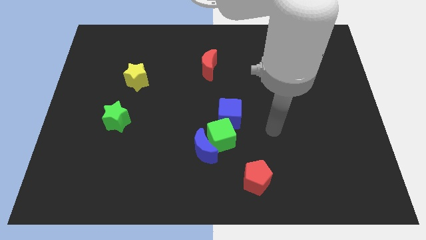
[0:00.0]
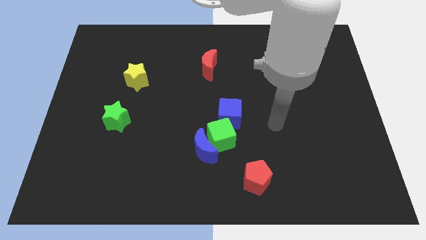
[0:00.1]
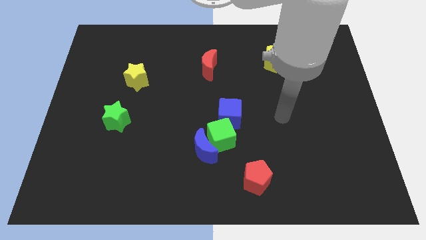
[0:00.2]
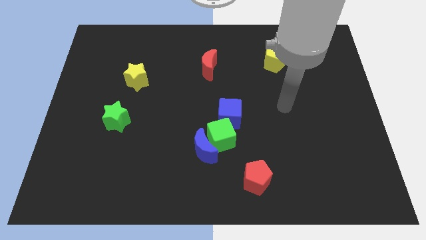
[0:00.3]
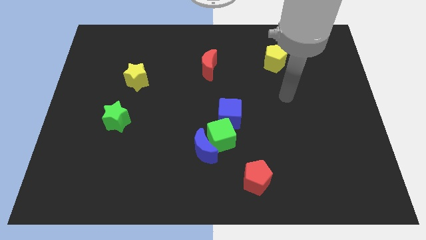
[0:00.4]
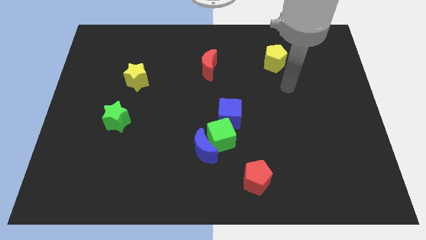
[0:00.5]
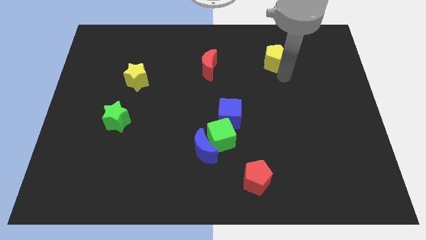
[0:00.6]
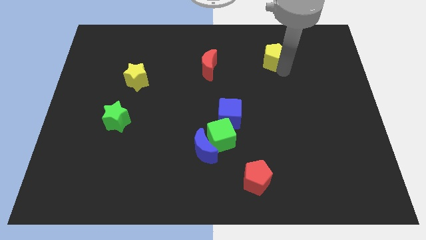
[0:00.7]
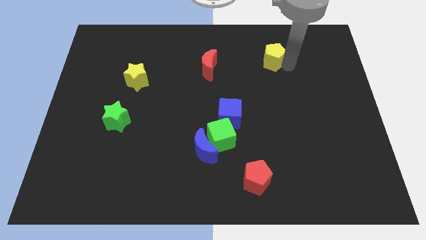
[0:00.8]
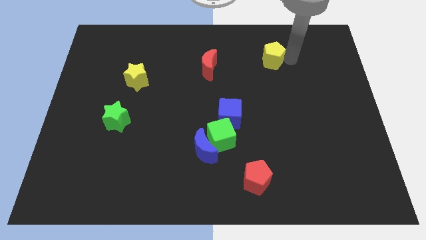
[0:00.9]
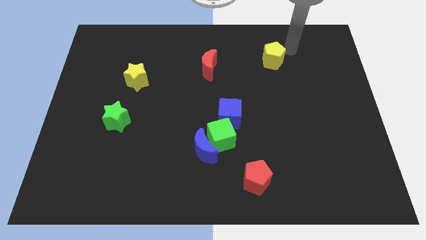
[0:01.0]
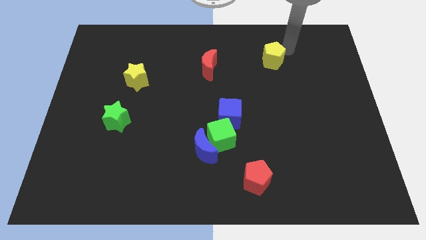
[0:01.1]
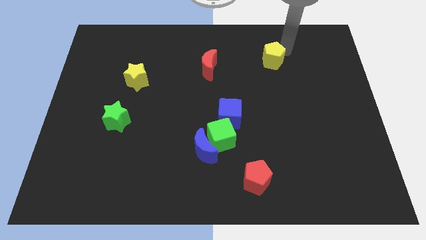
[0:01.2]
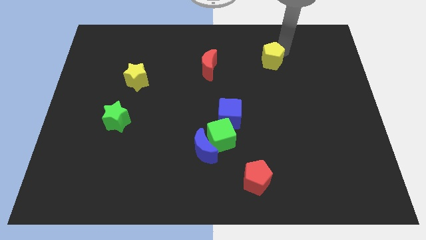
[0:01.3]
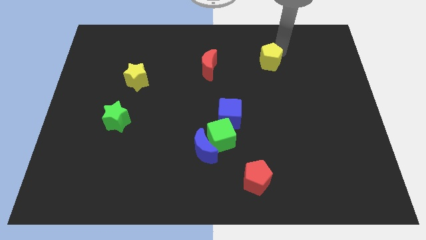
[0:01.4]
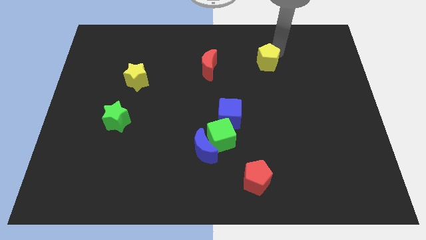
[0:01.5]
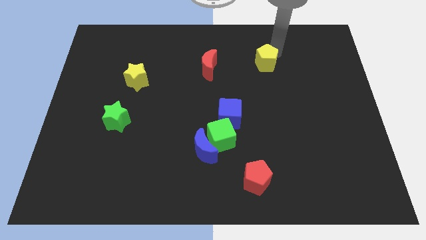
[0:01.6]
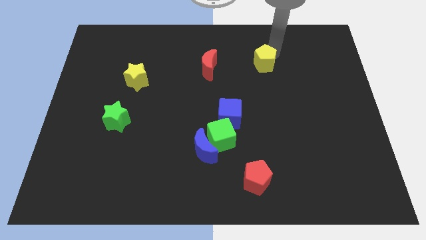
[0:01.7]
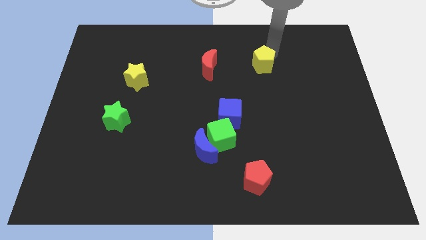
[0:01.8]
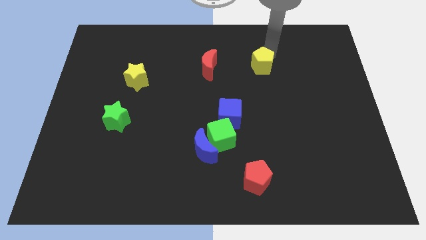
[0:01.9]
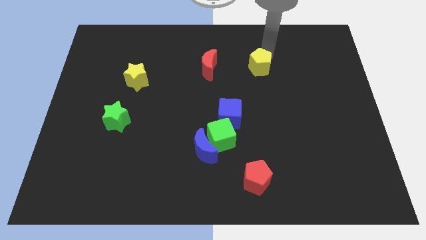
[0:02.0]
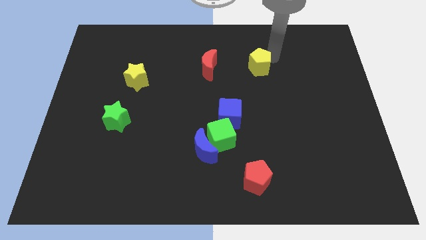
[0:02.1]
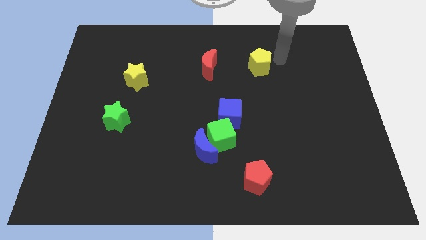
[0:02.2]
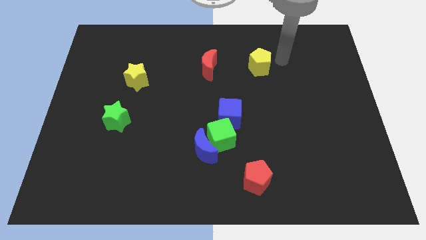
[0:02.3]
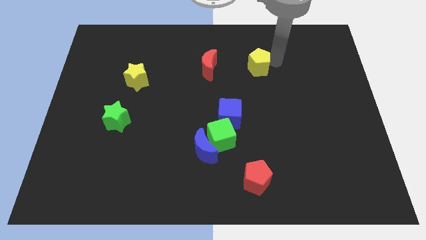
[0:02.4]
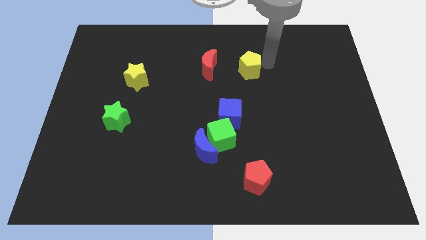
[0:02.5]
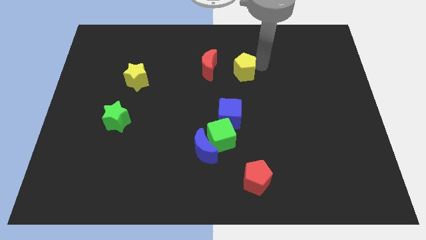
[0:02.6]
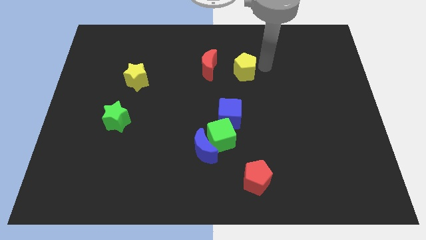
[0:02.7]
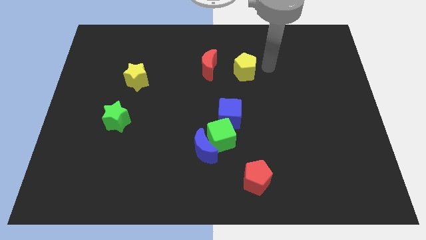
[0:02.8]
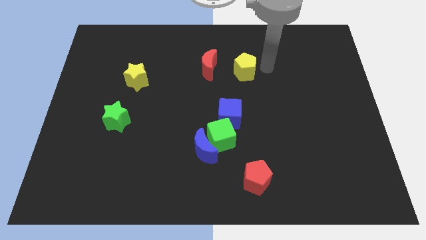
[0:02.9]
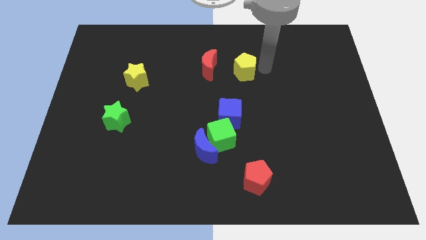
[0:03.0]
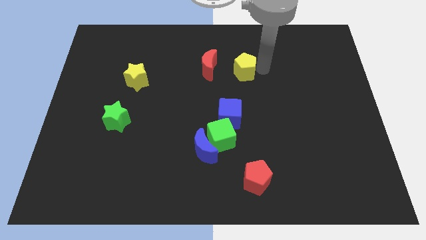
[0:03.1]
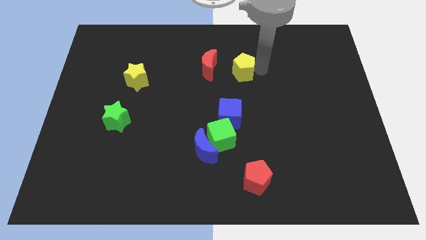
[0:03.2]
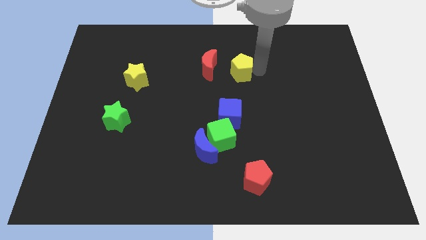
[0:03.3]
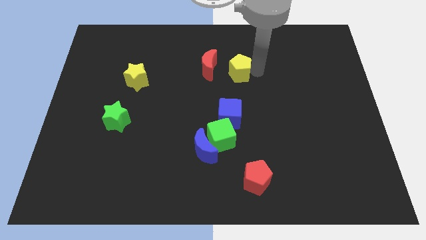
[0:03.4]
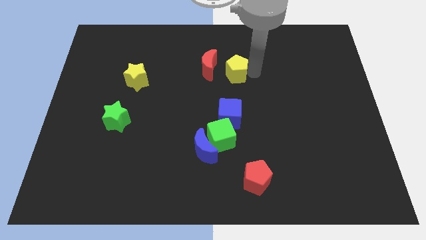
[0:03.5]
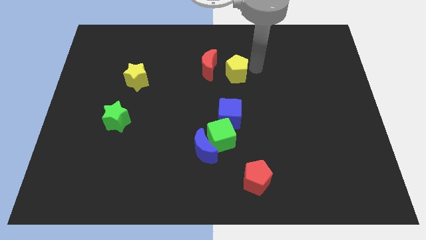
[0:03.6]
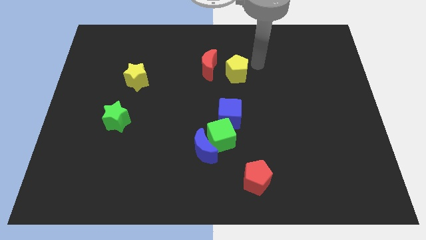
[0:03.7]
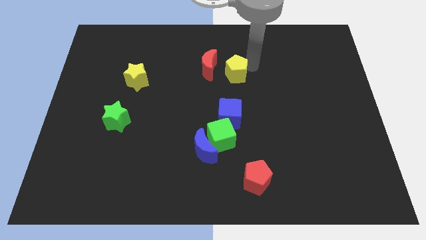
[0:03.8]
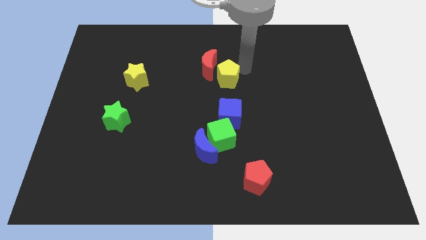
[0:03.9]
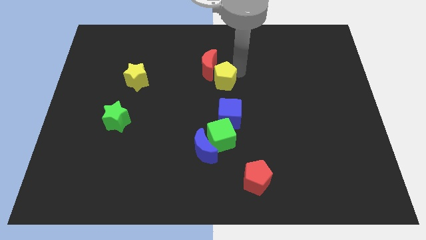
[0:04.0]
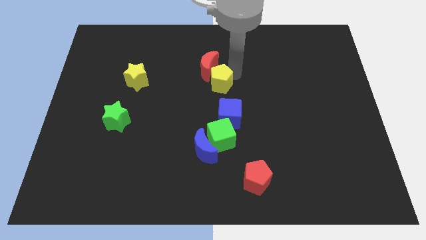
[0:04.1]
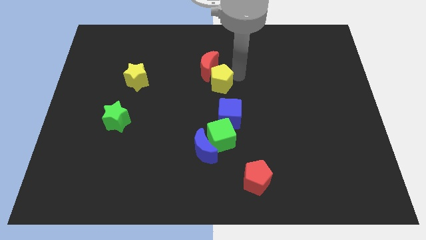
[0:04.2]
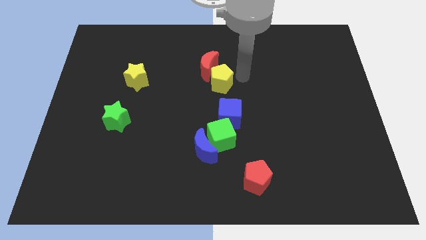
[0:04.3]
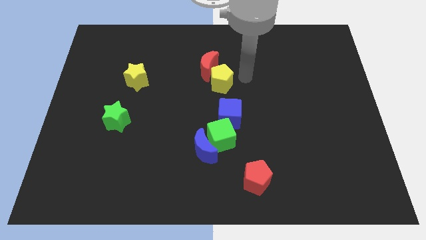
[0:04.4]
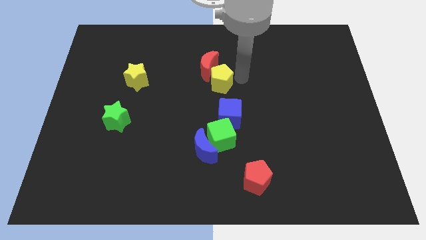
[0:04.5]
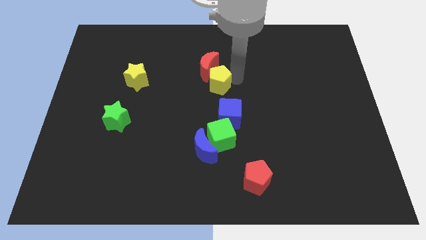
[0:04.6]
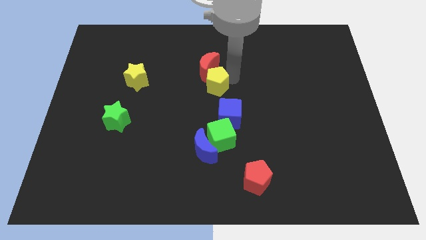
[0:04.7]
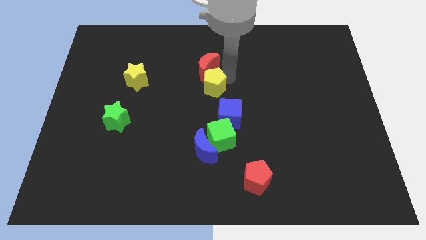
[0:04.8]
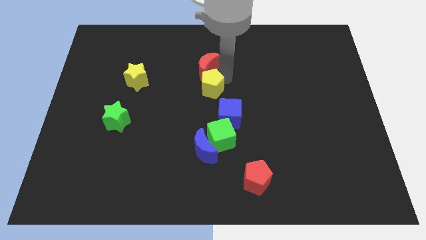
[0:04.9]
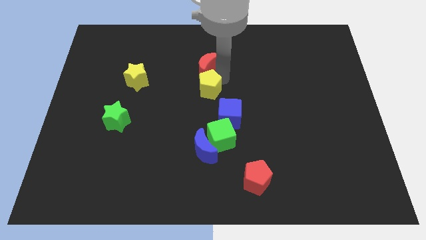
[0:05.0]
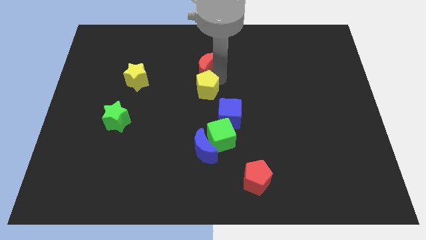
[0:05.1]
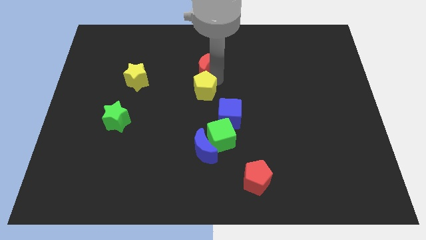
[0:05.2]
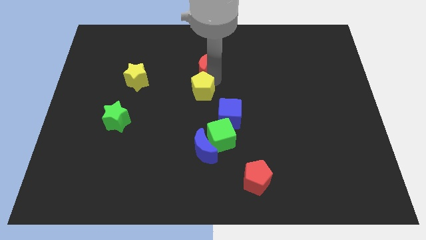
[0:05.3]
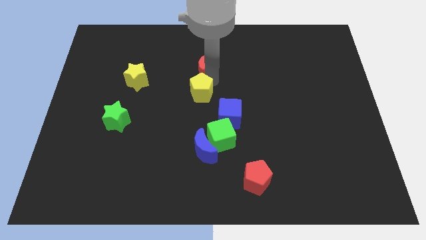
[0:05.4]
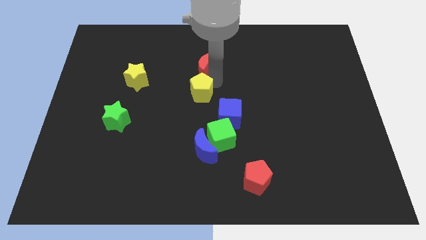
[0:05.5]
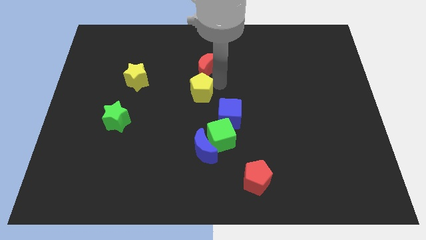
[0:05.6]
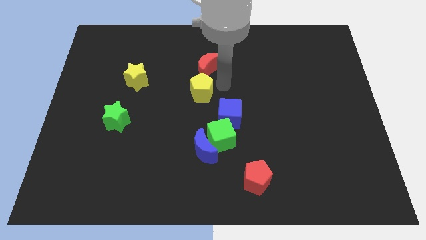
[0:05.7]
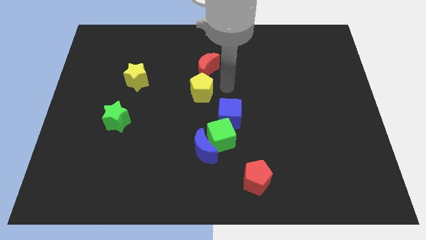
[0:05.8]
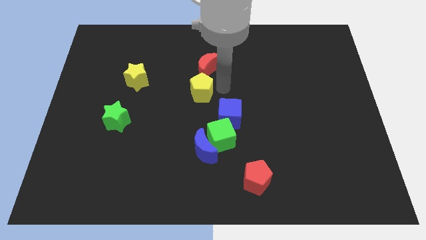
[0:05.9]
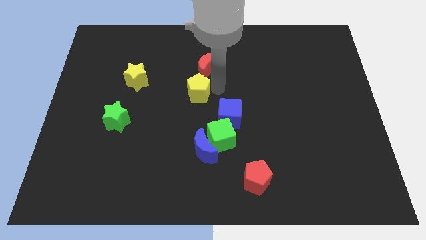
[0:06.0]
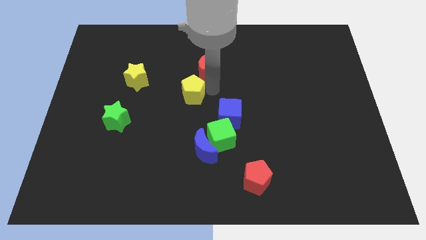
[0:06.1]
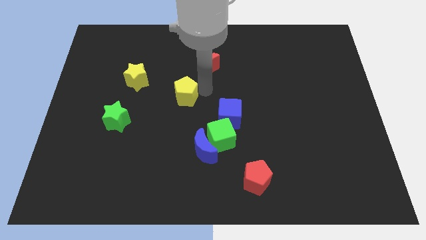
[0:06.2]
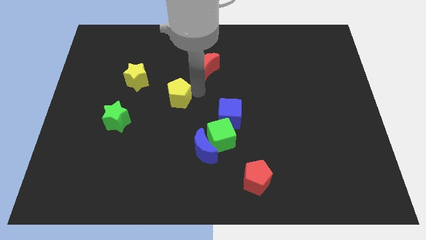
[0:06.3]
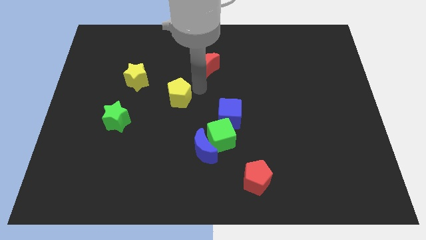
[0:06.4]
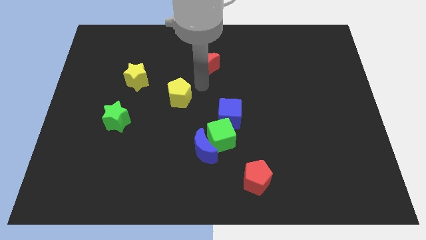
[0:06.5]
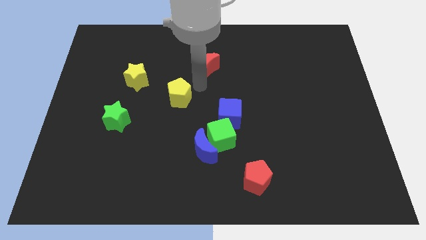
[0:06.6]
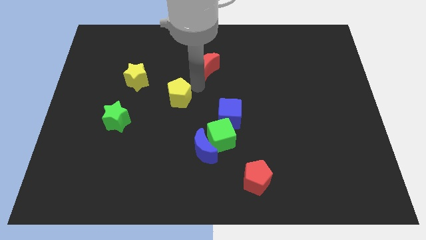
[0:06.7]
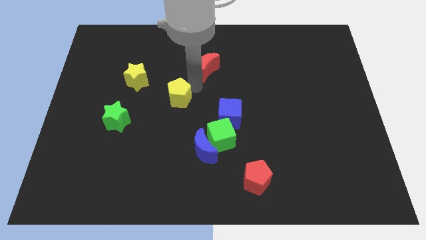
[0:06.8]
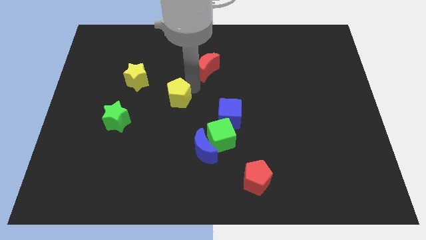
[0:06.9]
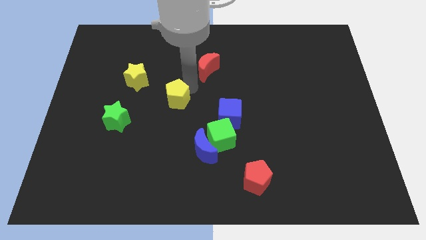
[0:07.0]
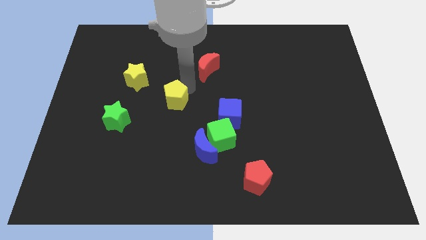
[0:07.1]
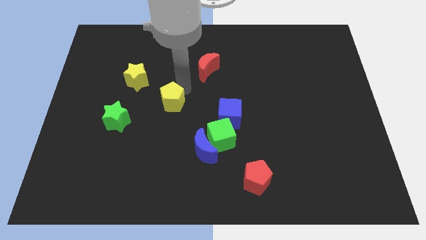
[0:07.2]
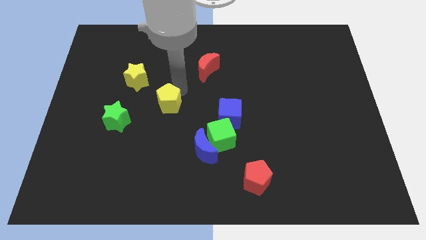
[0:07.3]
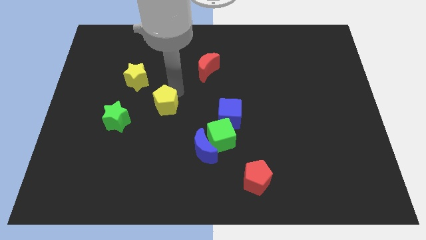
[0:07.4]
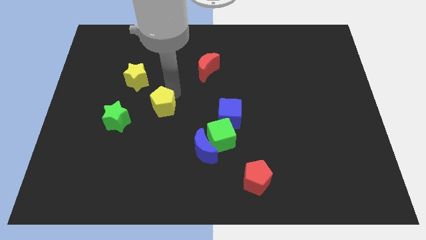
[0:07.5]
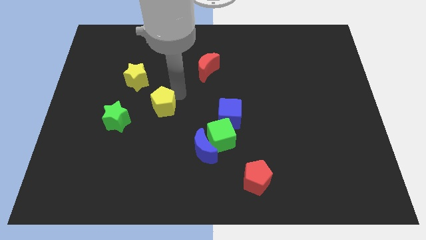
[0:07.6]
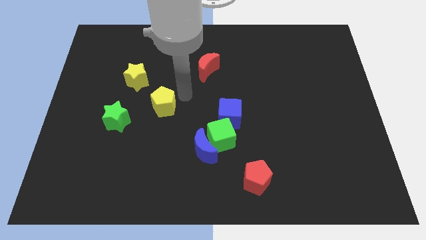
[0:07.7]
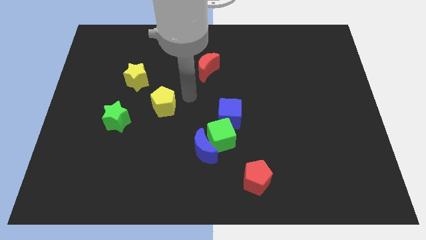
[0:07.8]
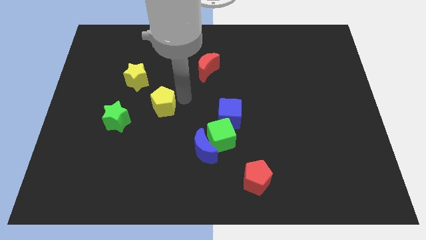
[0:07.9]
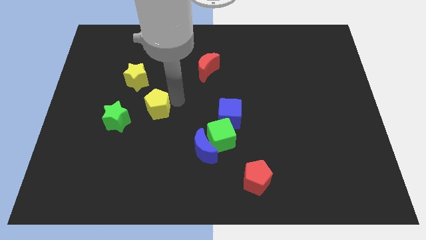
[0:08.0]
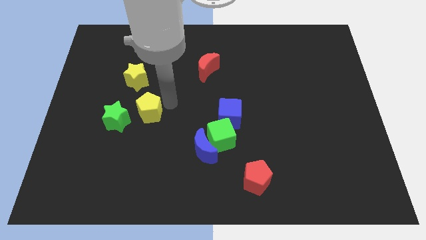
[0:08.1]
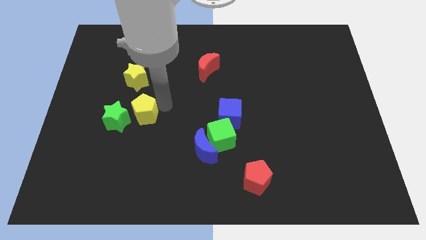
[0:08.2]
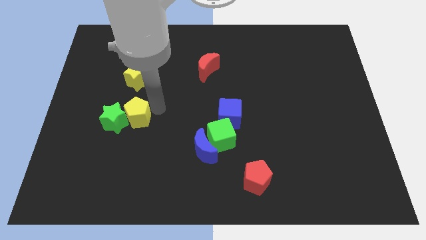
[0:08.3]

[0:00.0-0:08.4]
slide the yellow pentagon next to the green star
